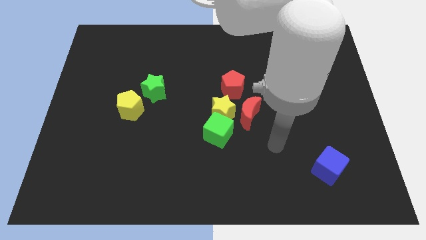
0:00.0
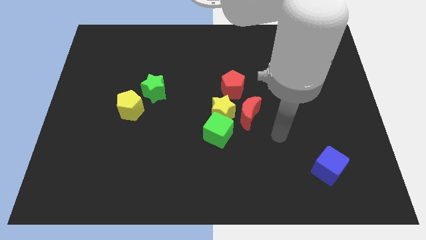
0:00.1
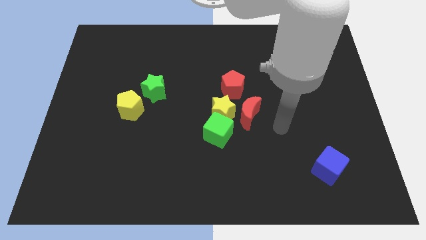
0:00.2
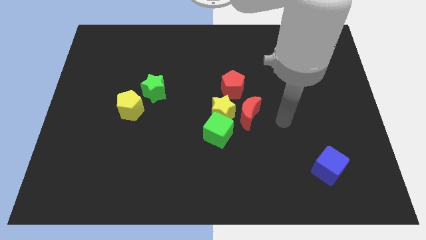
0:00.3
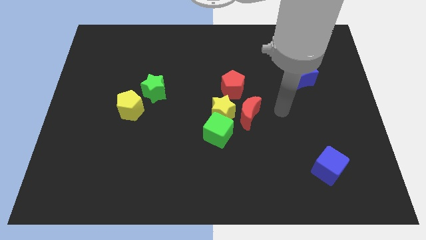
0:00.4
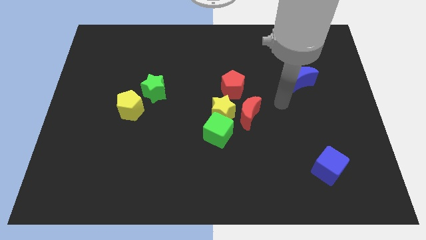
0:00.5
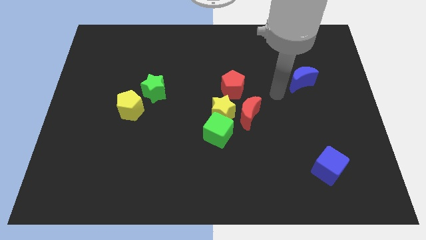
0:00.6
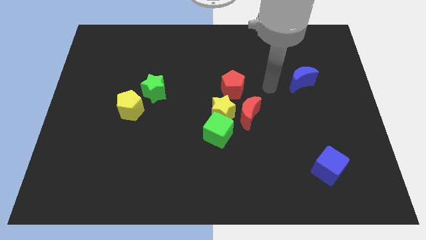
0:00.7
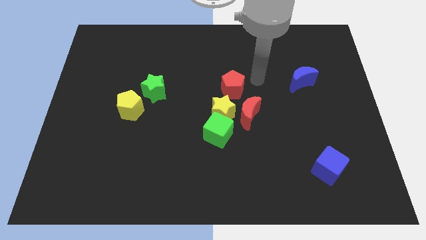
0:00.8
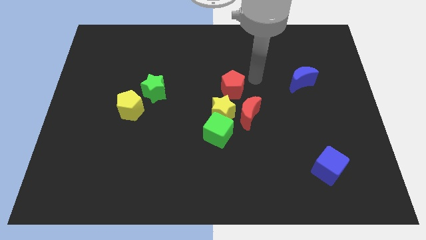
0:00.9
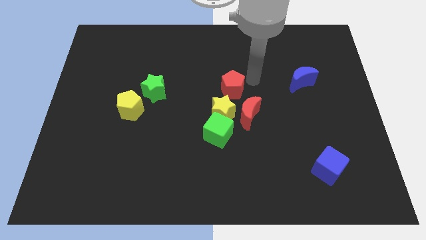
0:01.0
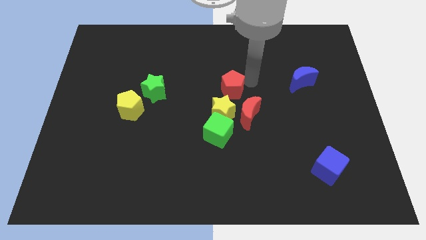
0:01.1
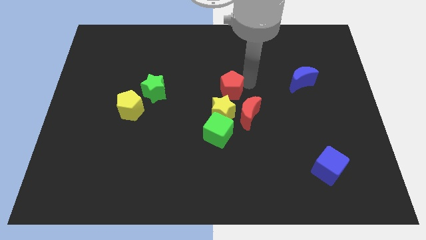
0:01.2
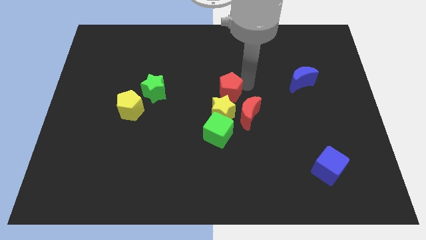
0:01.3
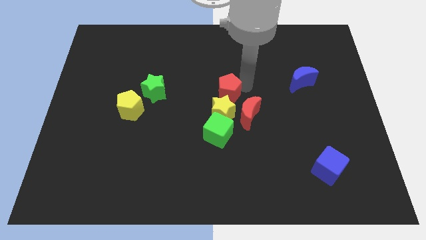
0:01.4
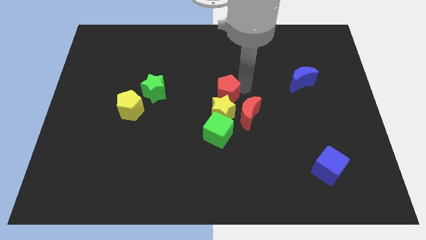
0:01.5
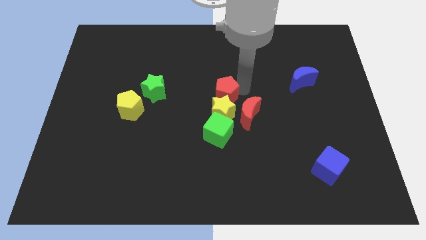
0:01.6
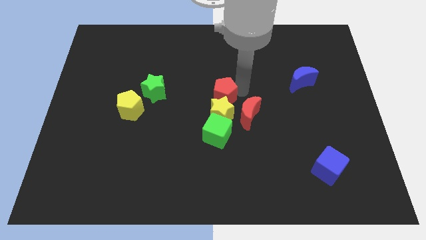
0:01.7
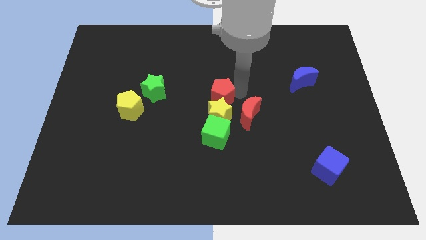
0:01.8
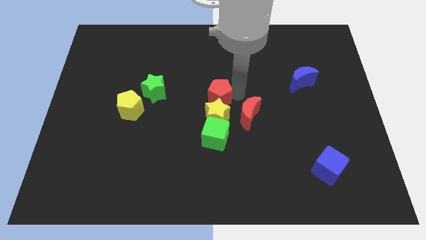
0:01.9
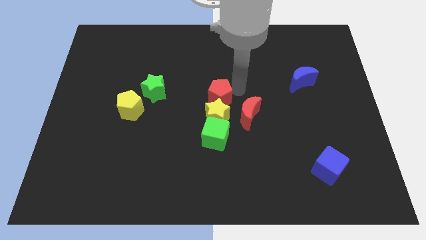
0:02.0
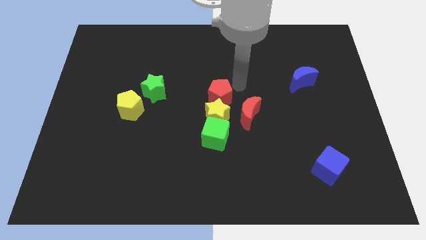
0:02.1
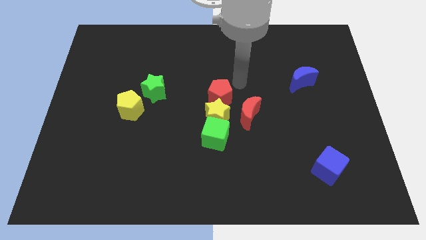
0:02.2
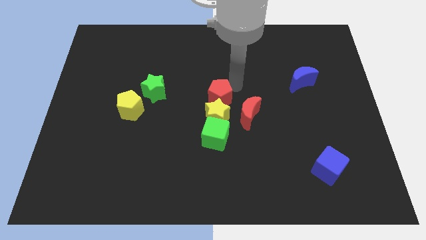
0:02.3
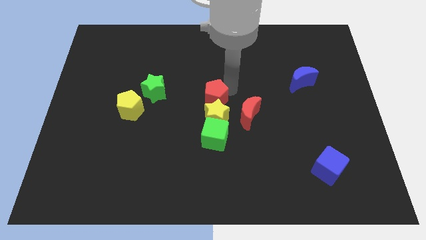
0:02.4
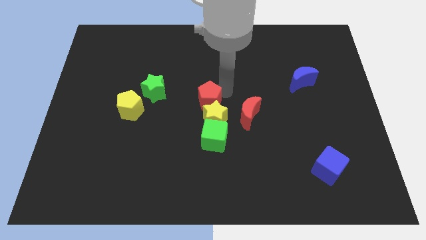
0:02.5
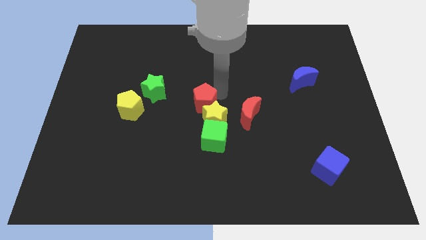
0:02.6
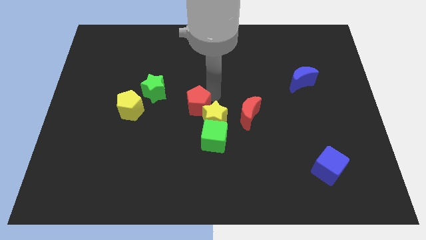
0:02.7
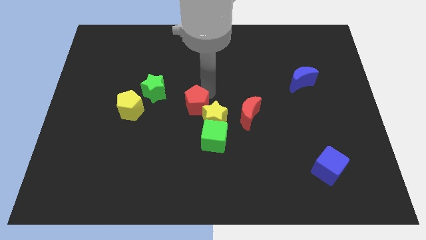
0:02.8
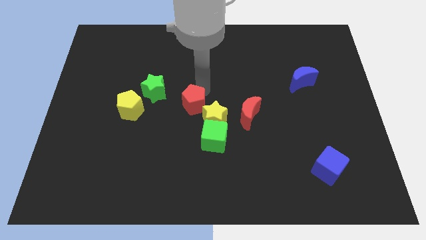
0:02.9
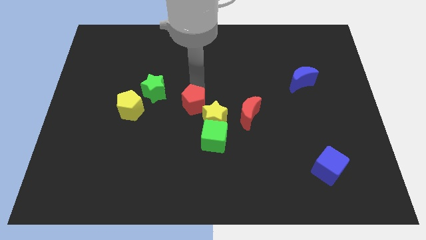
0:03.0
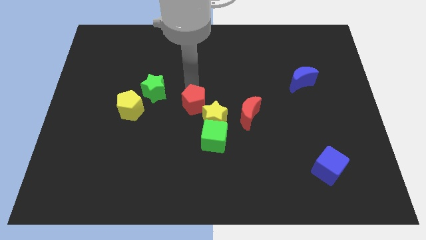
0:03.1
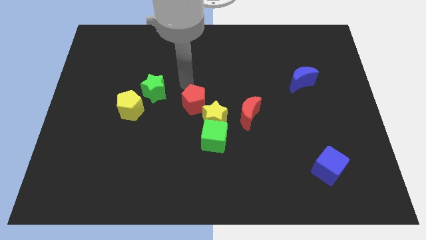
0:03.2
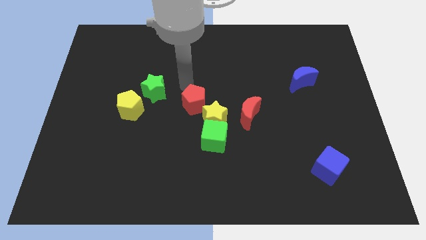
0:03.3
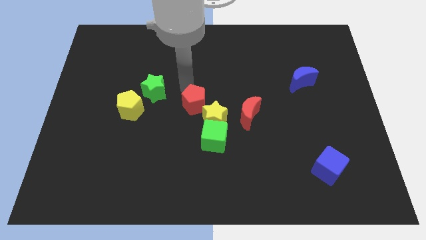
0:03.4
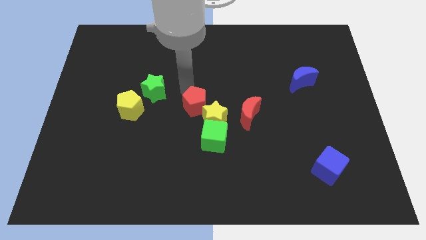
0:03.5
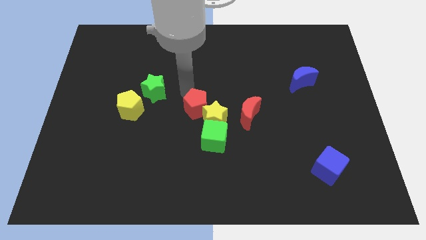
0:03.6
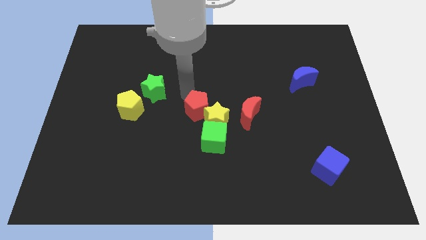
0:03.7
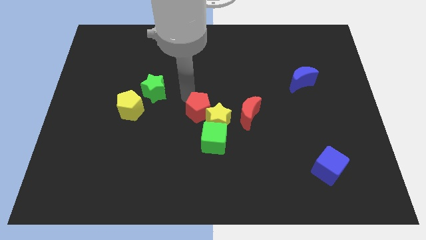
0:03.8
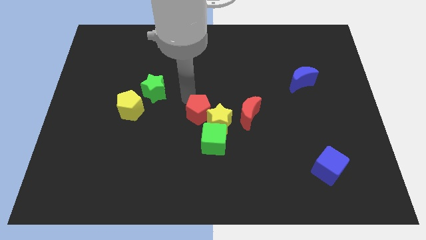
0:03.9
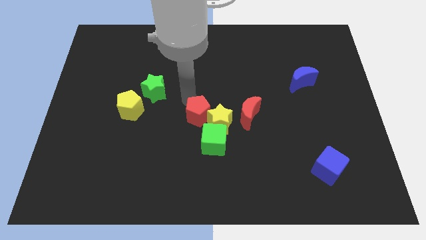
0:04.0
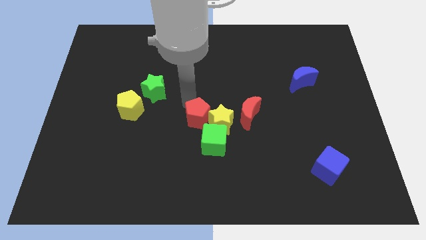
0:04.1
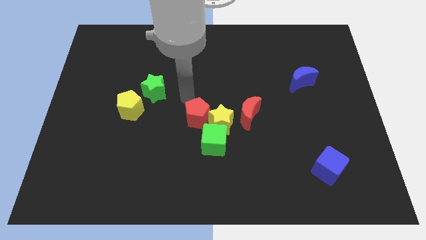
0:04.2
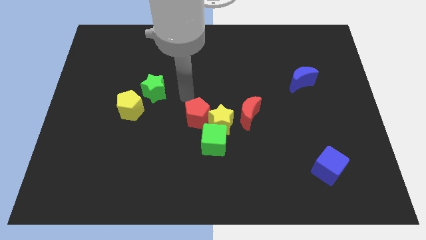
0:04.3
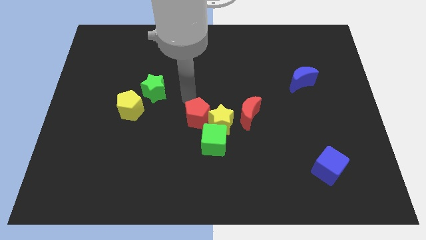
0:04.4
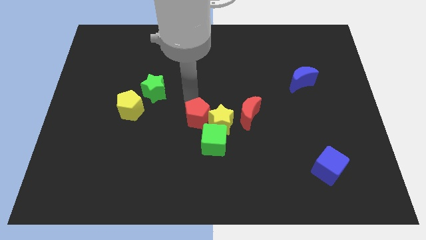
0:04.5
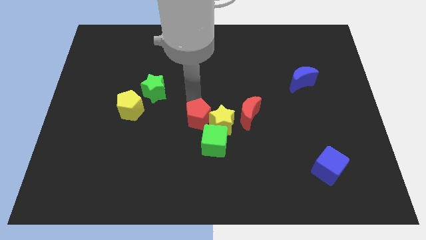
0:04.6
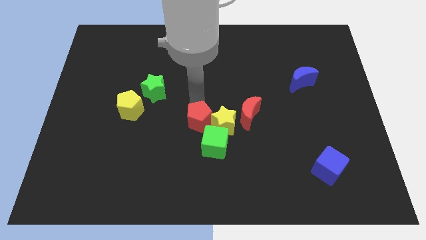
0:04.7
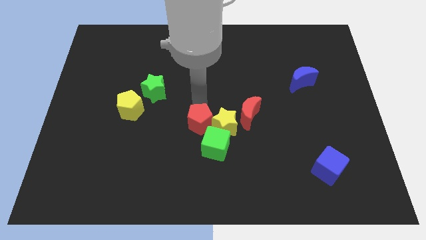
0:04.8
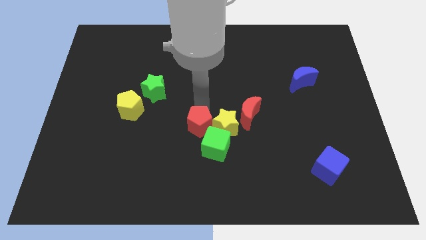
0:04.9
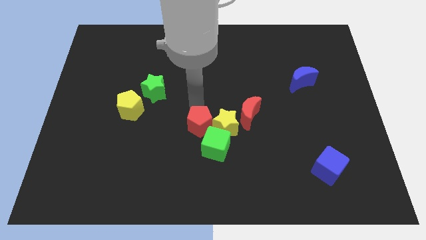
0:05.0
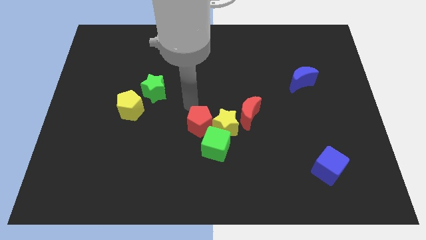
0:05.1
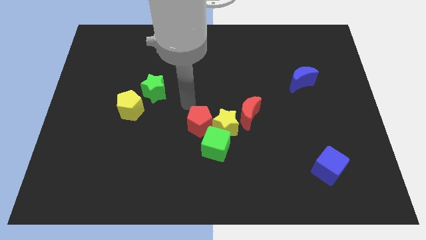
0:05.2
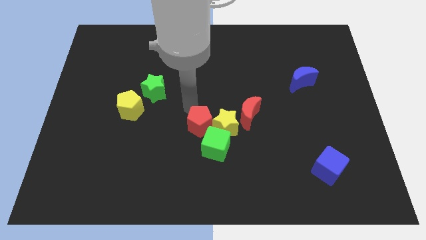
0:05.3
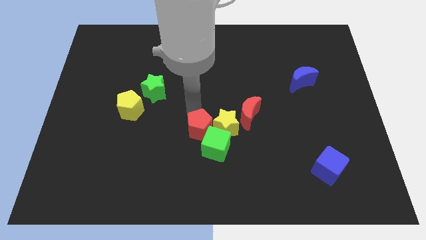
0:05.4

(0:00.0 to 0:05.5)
put the red pentagon towards the green cube
